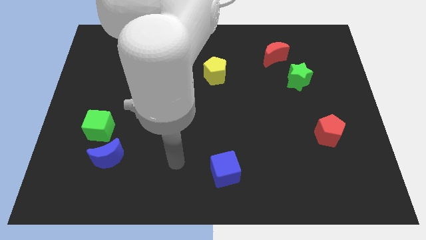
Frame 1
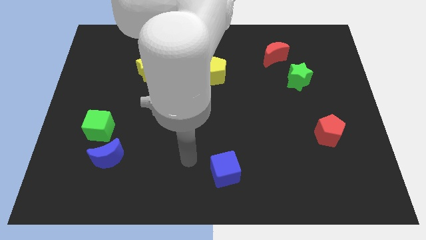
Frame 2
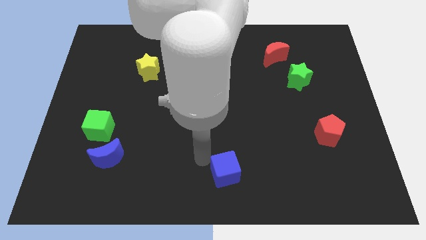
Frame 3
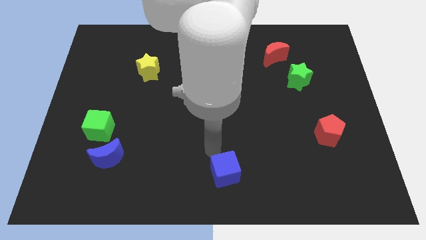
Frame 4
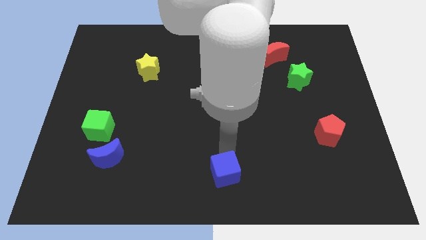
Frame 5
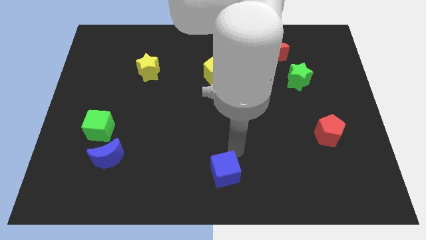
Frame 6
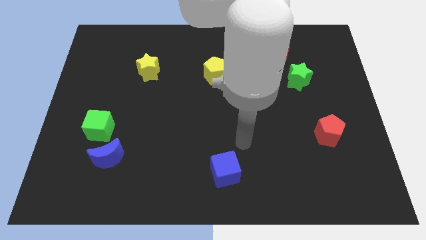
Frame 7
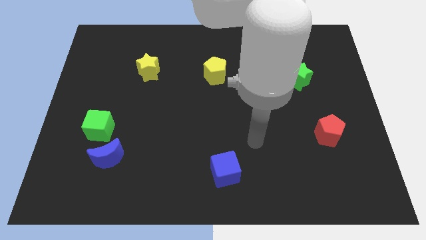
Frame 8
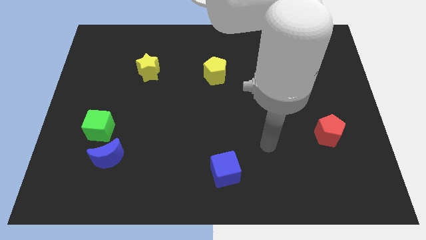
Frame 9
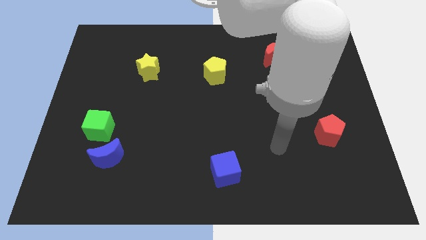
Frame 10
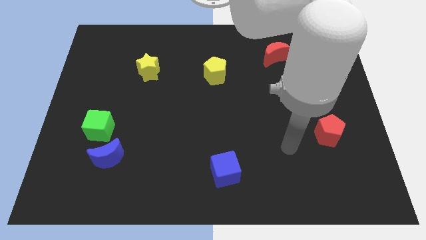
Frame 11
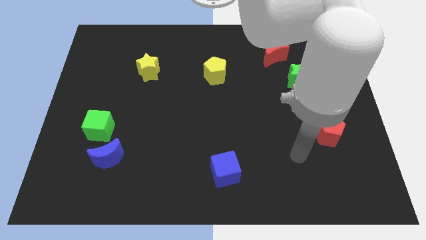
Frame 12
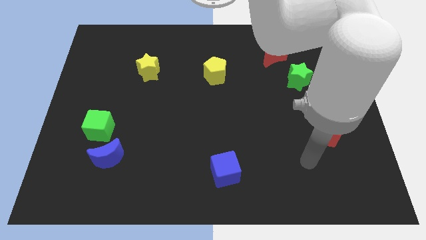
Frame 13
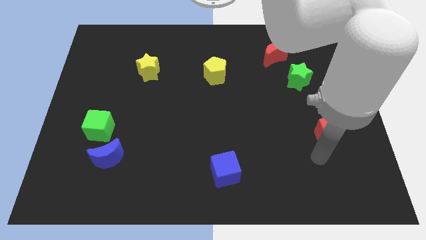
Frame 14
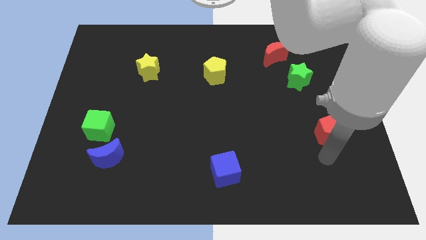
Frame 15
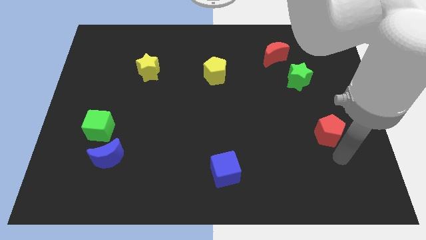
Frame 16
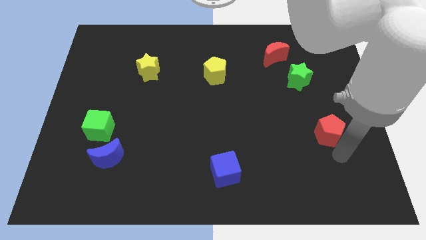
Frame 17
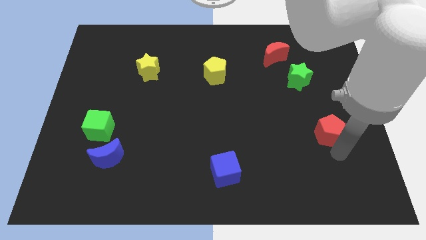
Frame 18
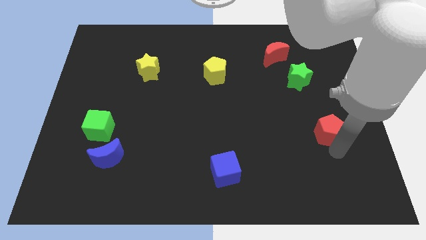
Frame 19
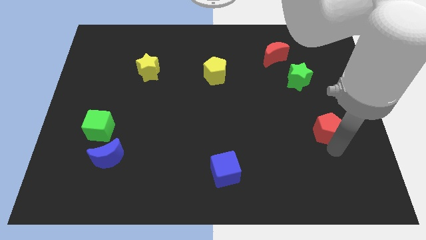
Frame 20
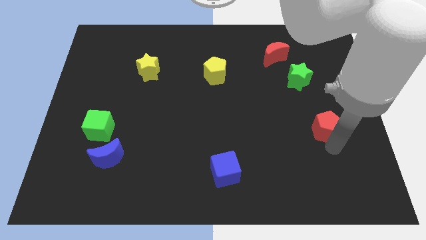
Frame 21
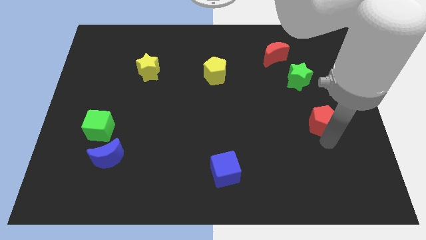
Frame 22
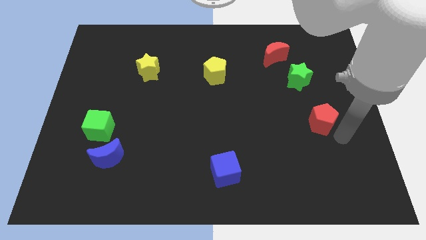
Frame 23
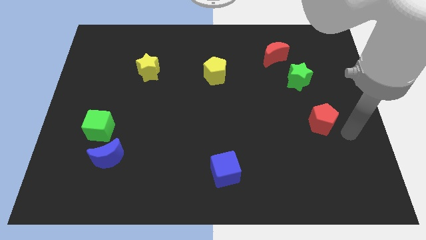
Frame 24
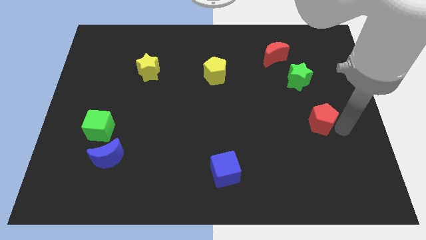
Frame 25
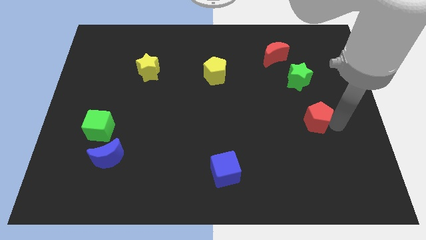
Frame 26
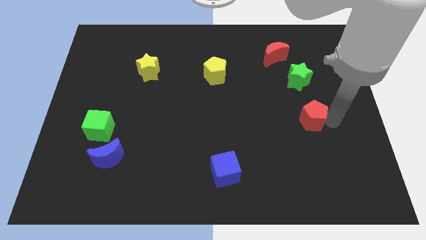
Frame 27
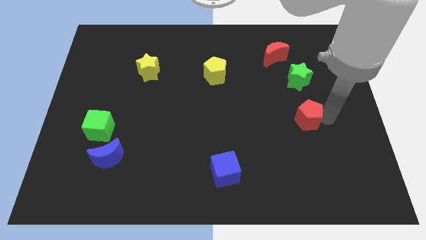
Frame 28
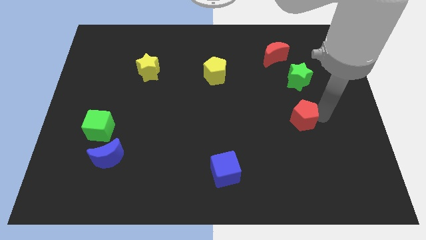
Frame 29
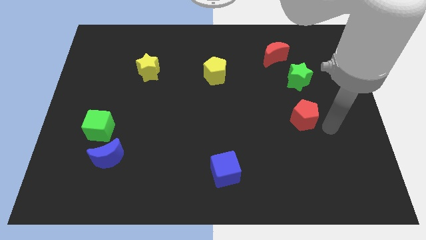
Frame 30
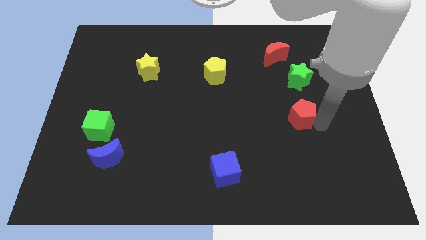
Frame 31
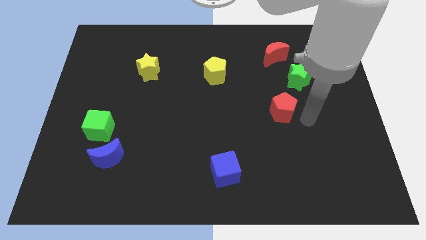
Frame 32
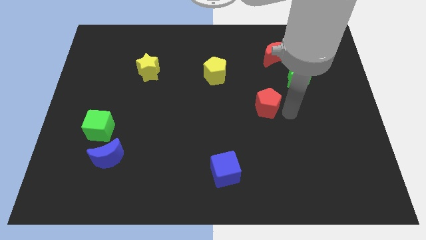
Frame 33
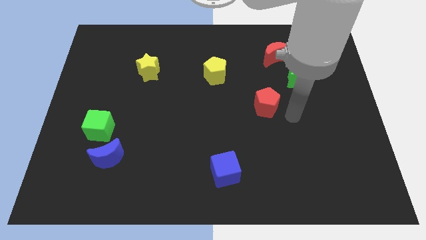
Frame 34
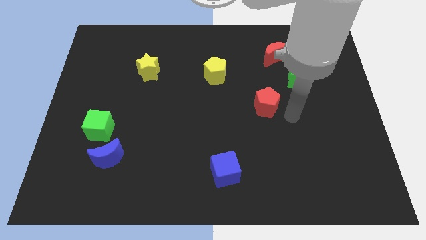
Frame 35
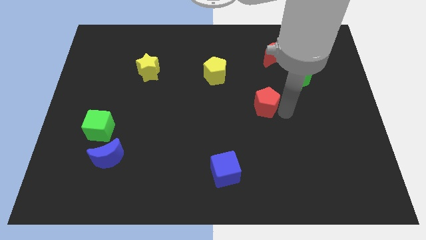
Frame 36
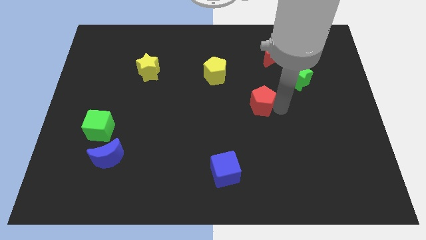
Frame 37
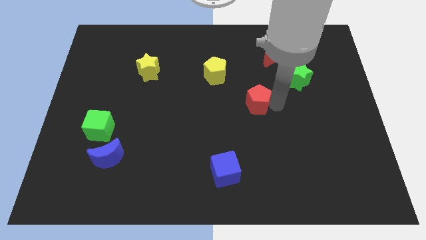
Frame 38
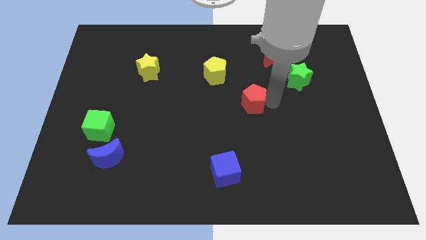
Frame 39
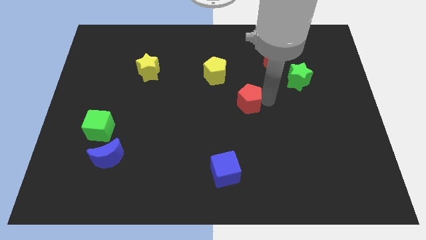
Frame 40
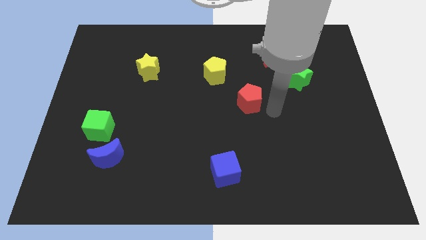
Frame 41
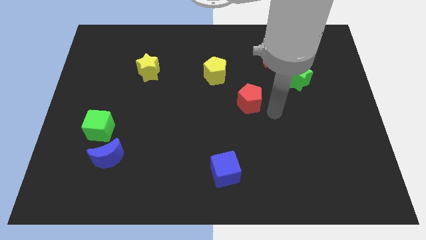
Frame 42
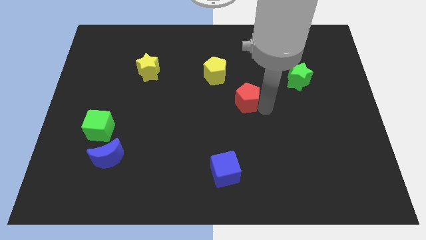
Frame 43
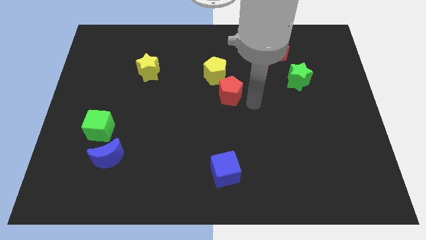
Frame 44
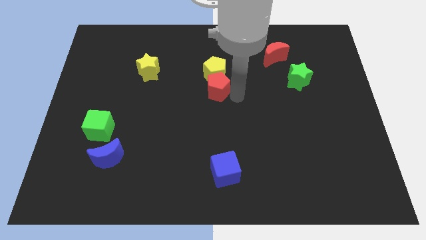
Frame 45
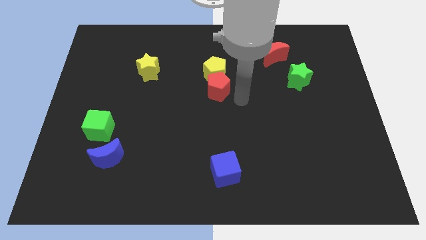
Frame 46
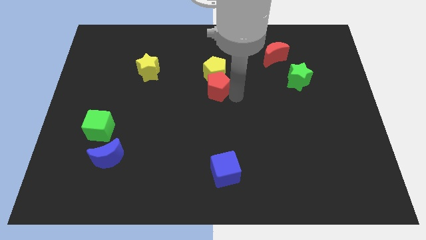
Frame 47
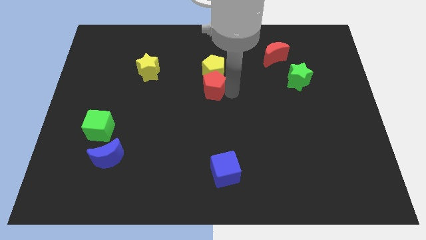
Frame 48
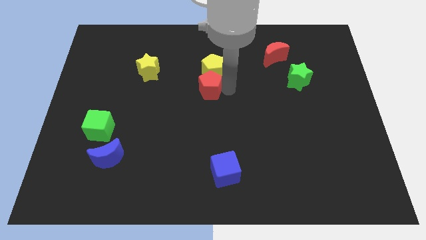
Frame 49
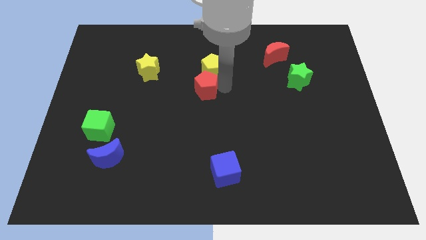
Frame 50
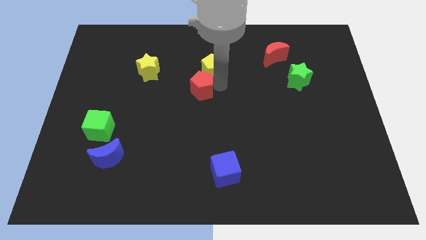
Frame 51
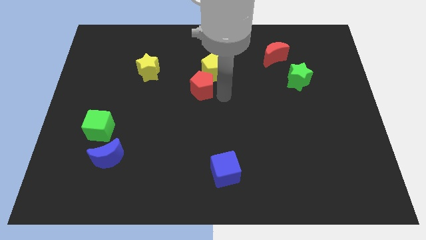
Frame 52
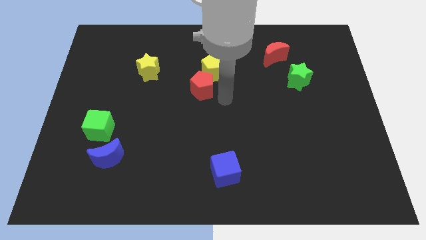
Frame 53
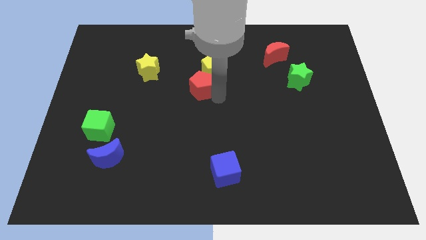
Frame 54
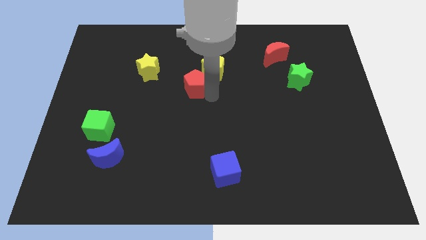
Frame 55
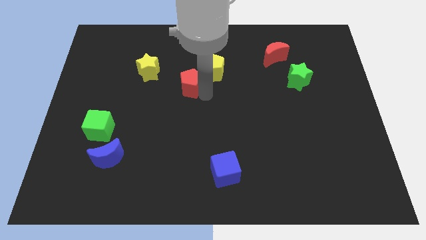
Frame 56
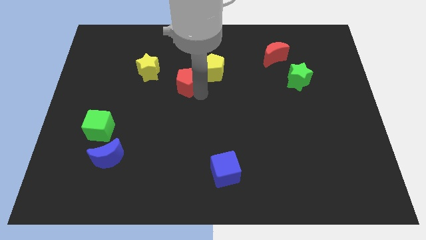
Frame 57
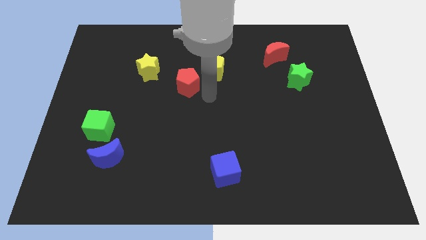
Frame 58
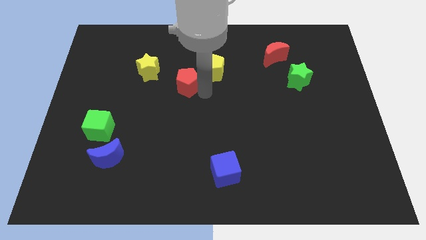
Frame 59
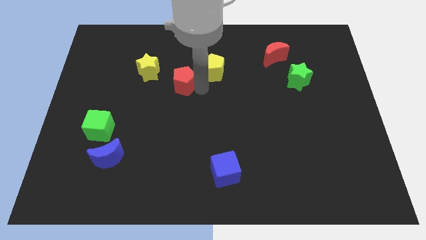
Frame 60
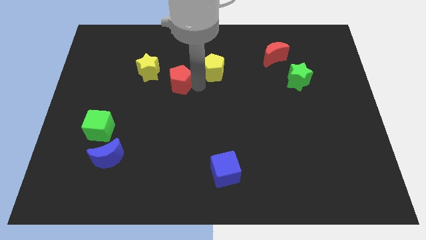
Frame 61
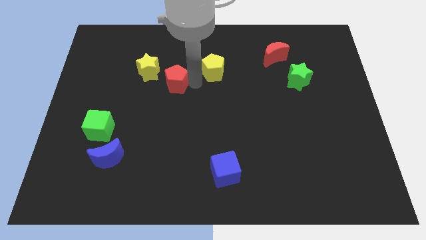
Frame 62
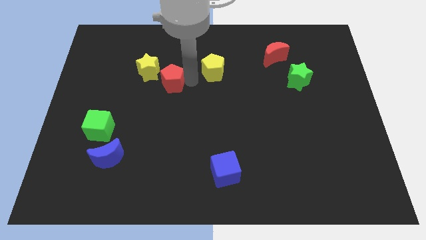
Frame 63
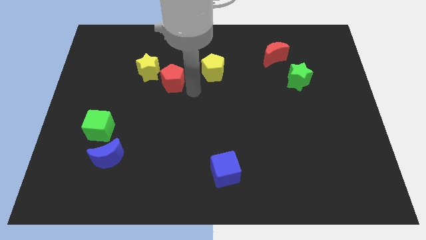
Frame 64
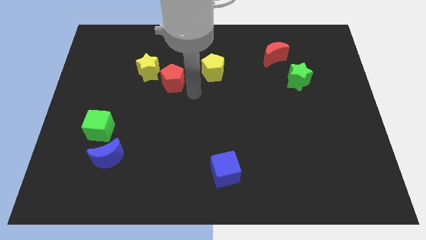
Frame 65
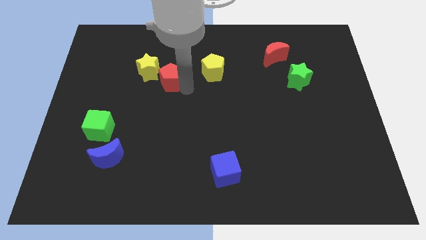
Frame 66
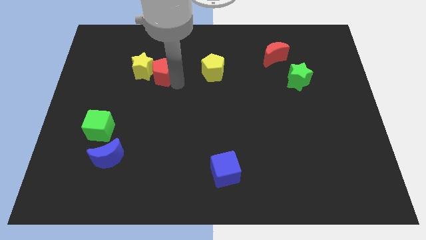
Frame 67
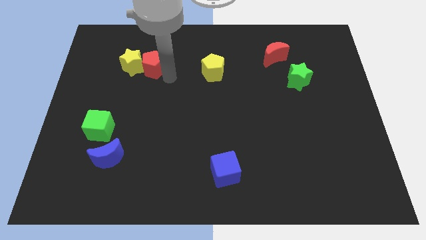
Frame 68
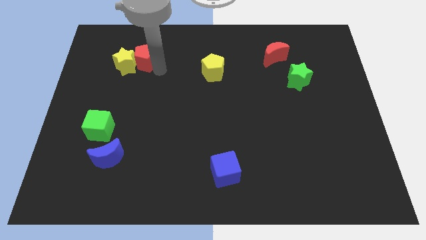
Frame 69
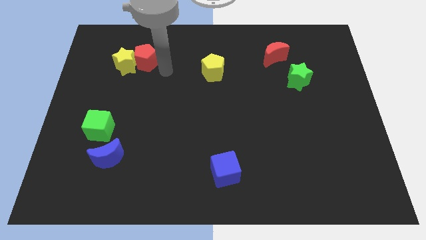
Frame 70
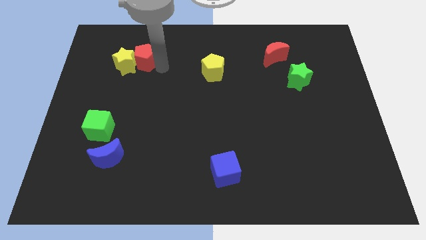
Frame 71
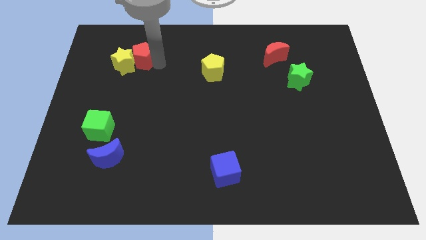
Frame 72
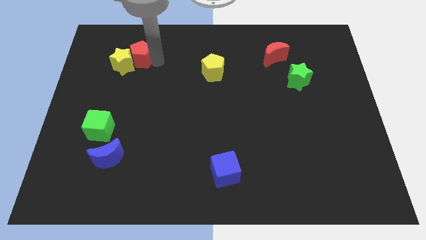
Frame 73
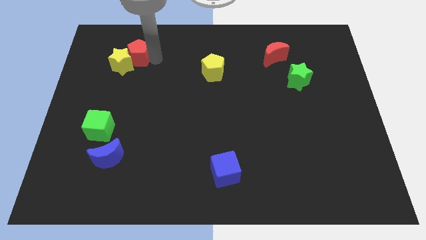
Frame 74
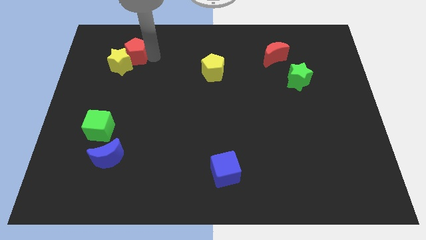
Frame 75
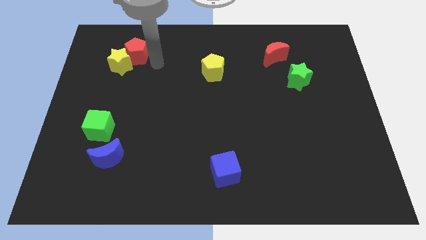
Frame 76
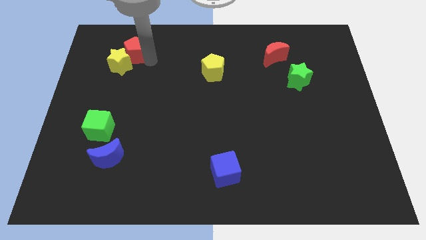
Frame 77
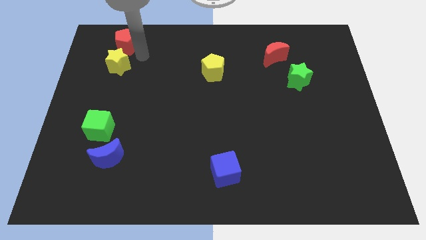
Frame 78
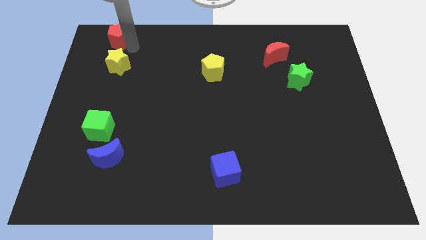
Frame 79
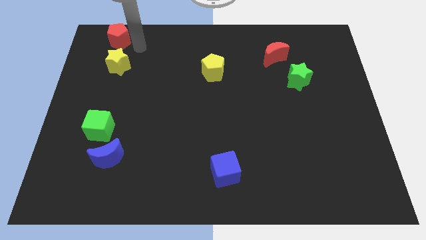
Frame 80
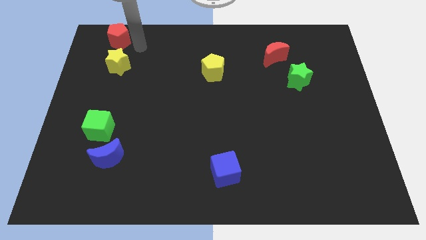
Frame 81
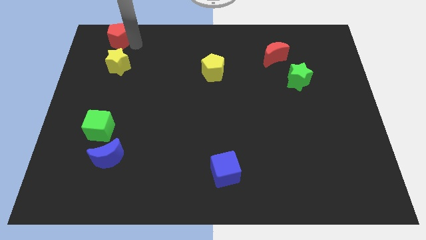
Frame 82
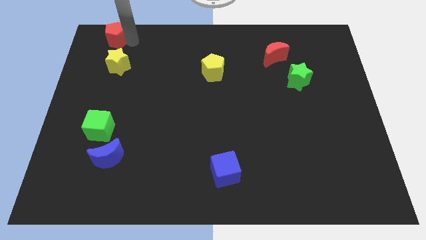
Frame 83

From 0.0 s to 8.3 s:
put the red pentagon to the top left
